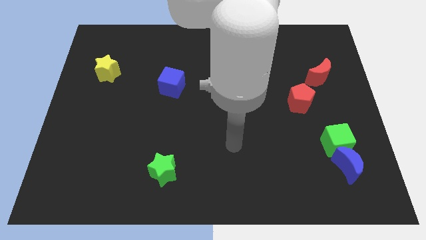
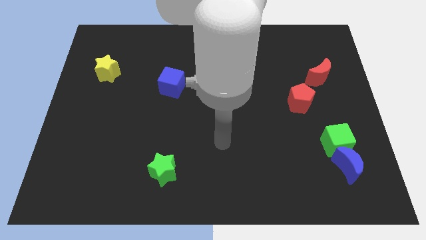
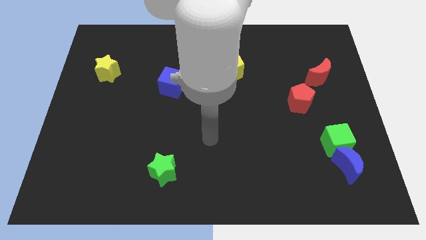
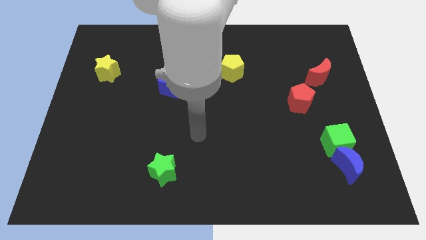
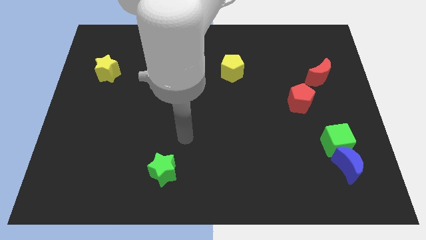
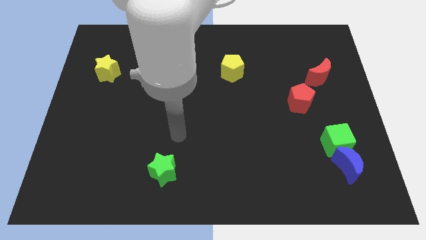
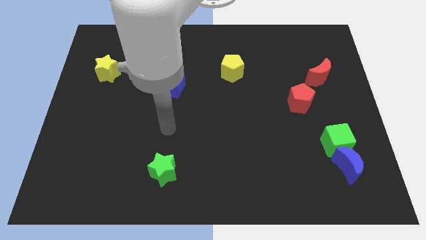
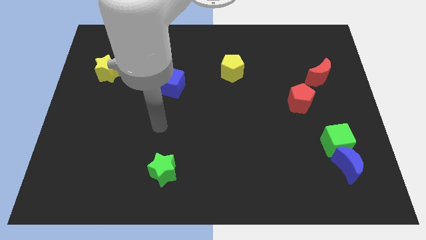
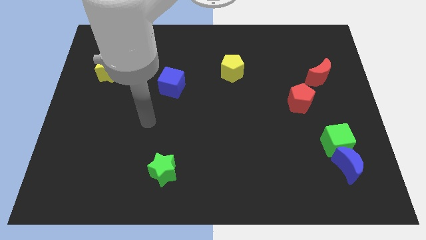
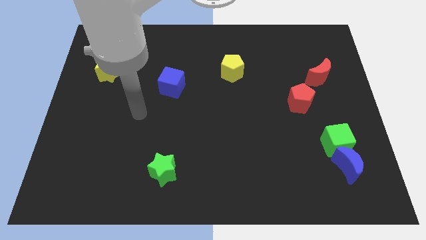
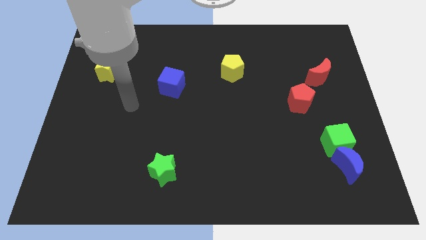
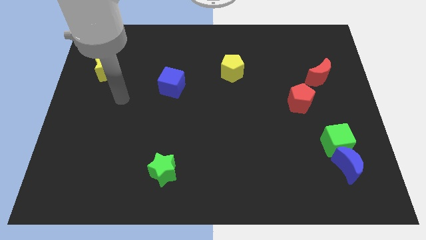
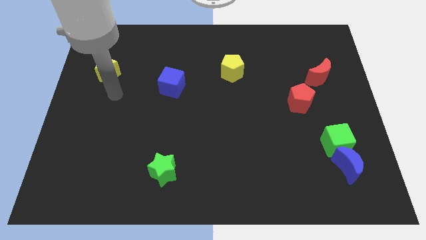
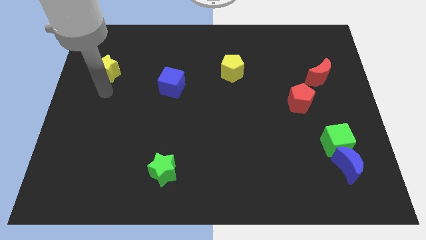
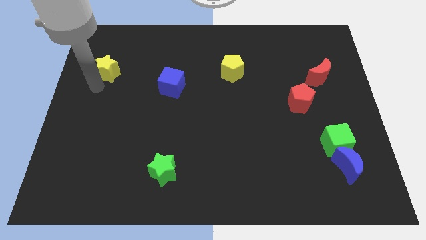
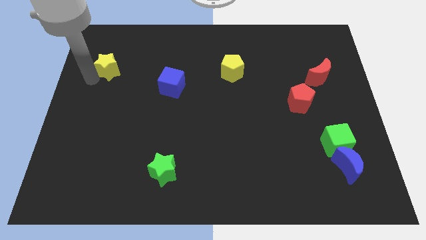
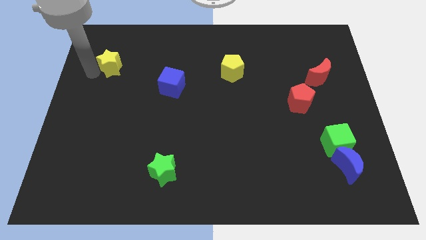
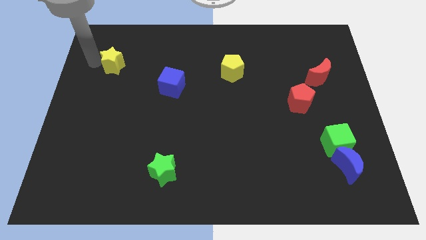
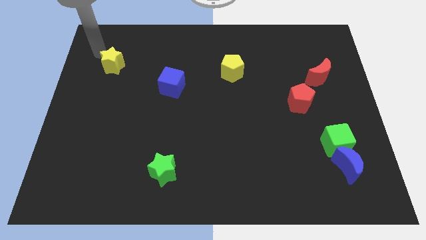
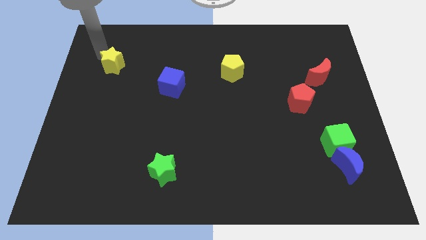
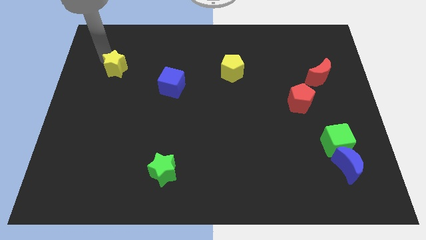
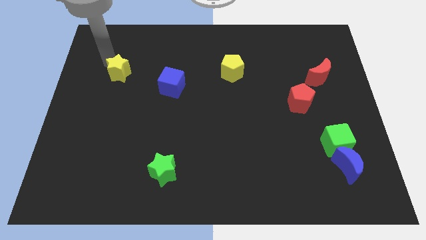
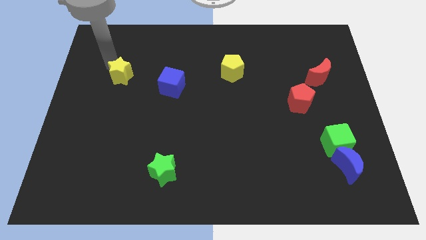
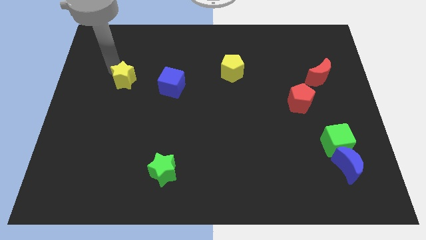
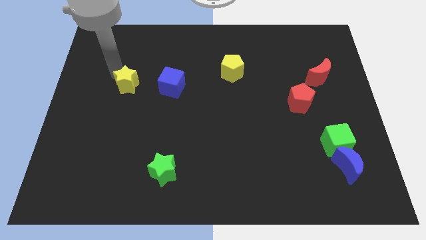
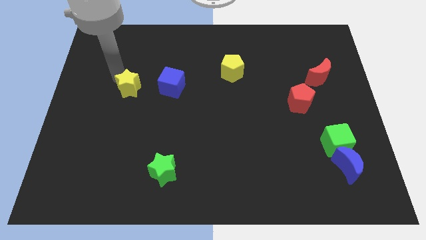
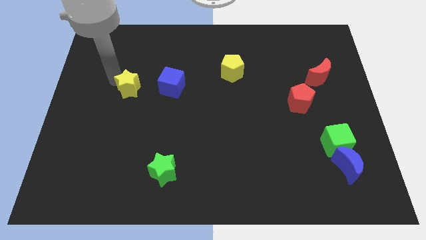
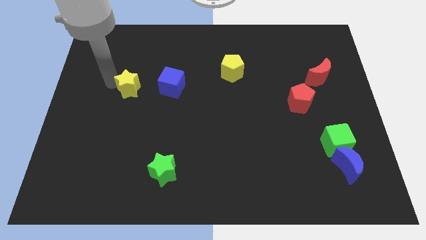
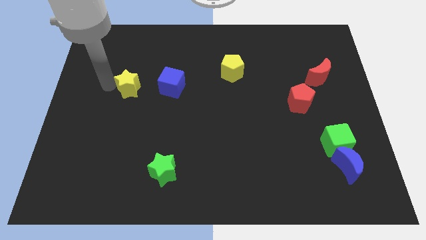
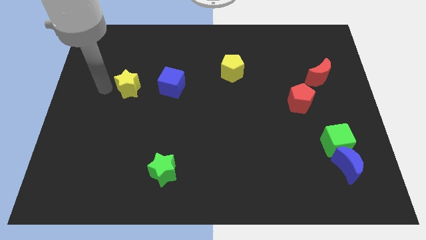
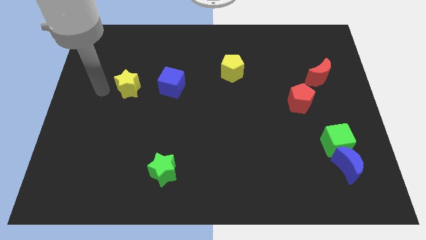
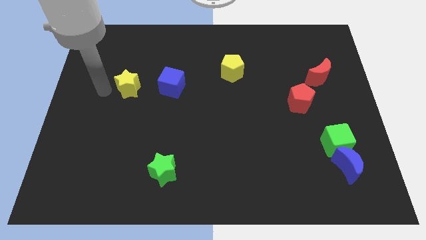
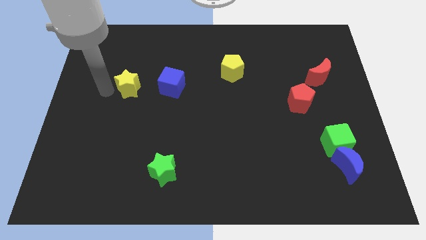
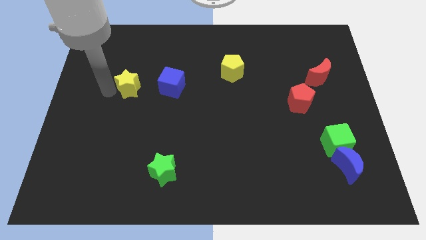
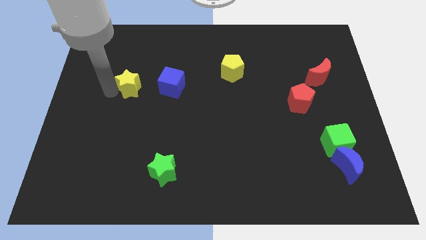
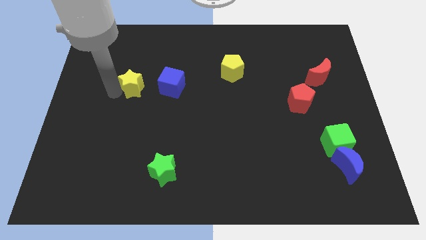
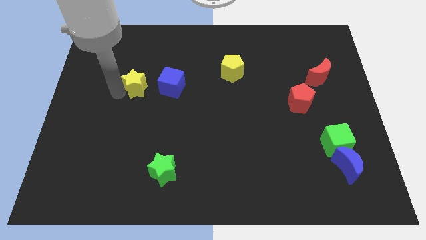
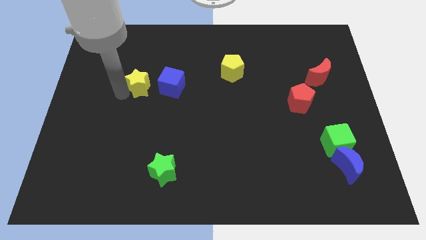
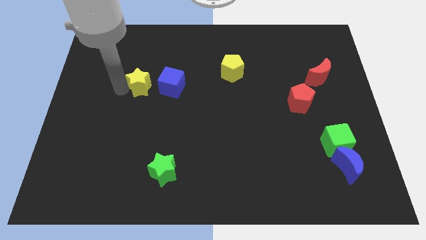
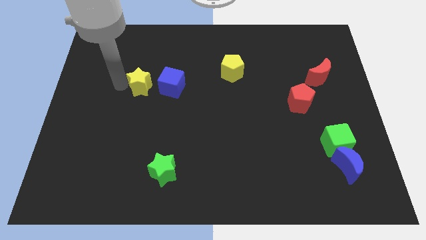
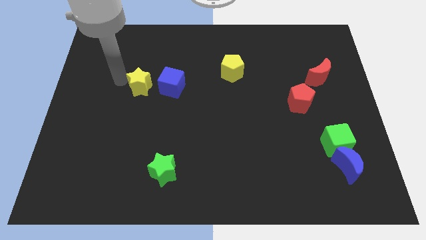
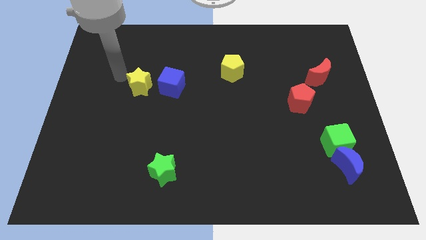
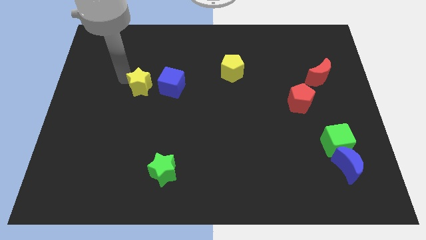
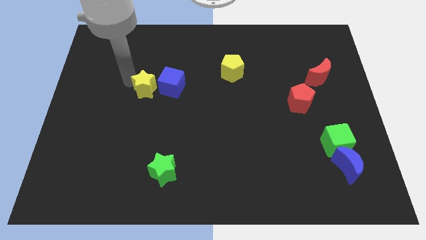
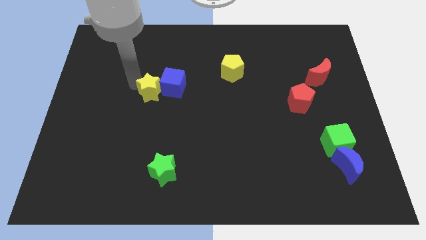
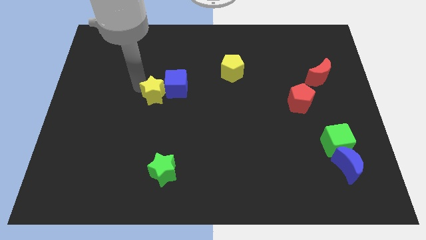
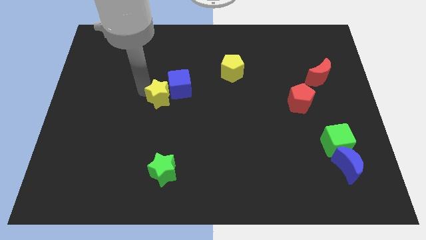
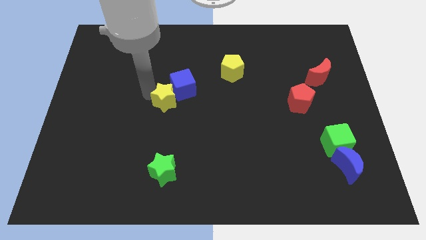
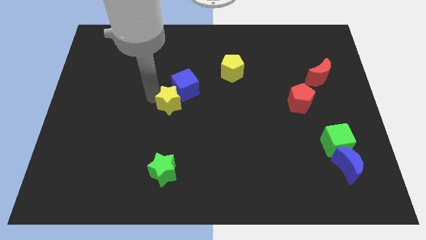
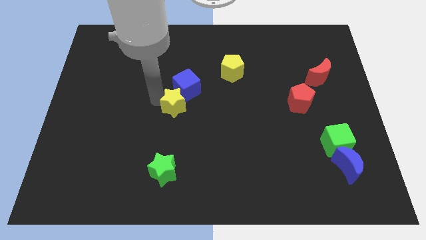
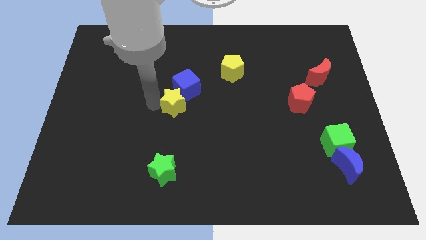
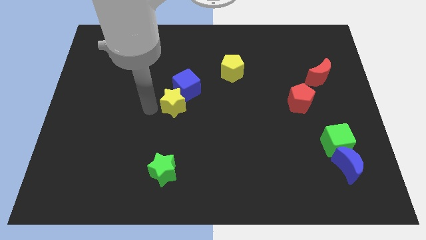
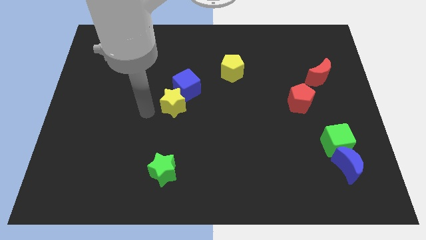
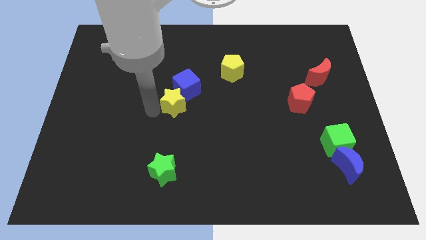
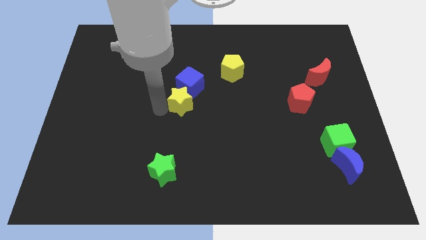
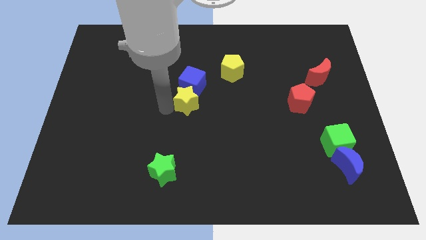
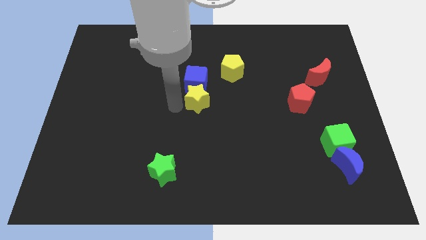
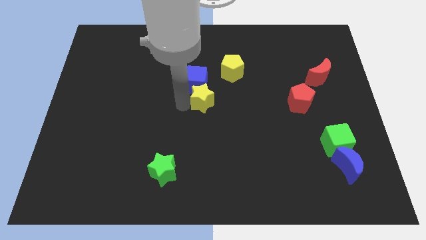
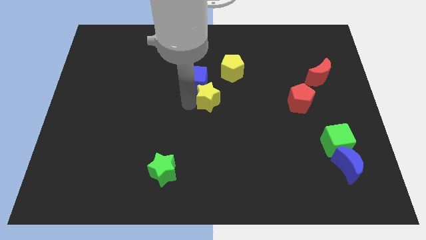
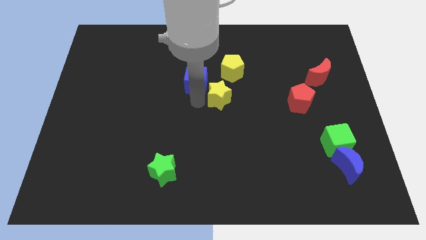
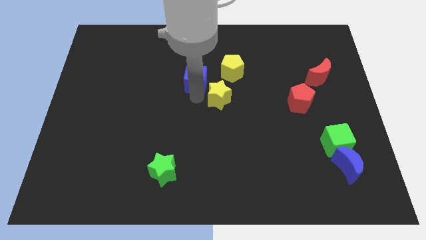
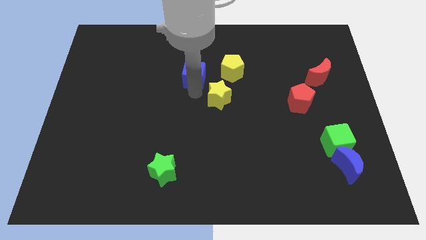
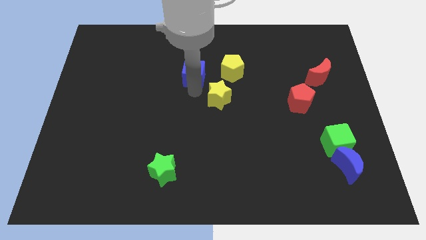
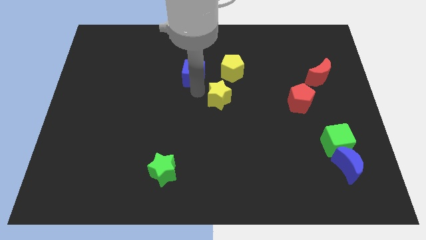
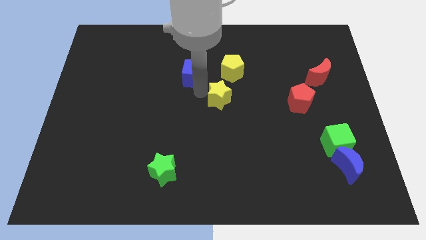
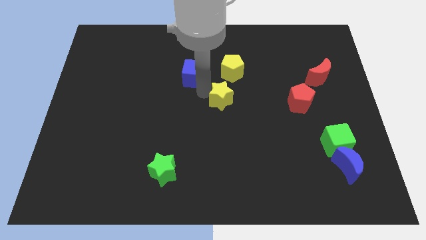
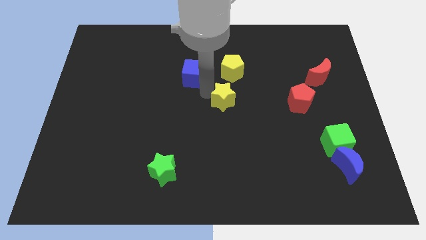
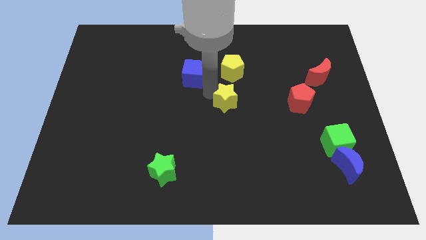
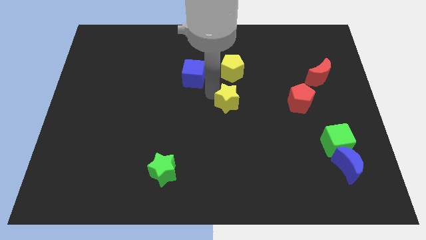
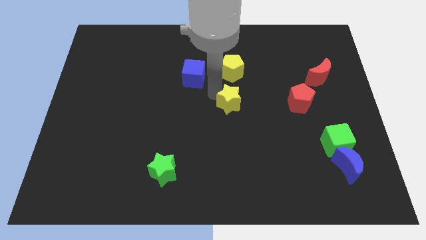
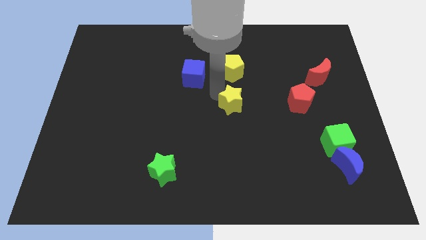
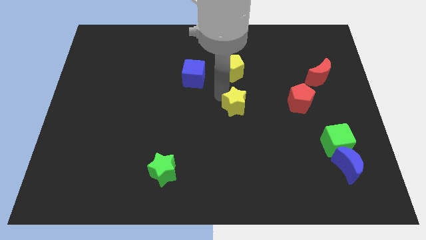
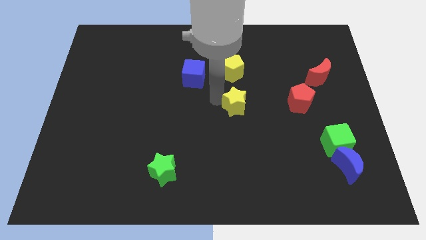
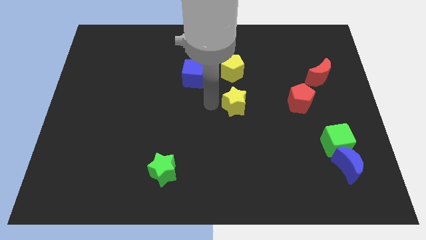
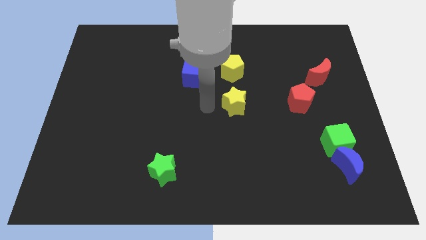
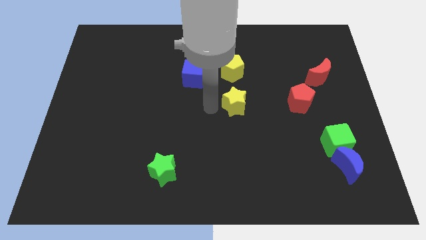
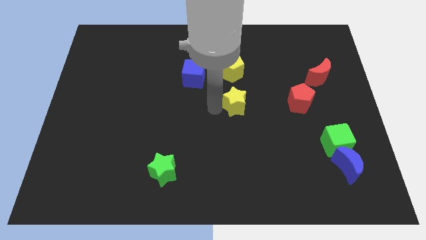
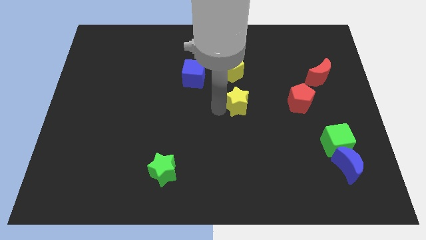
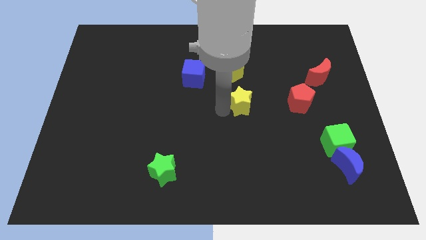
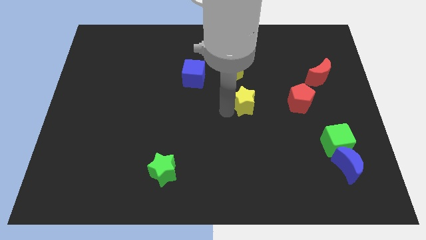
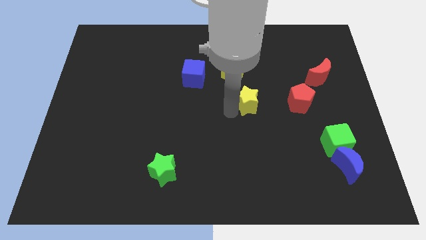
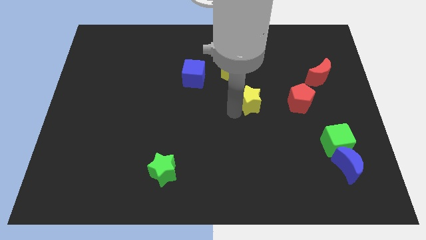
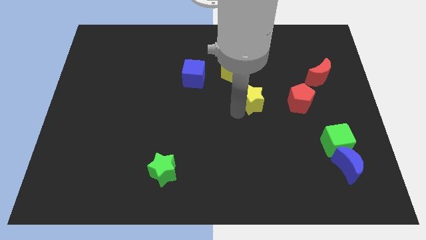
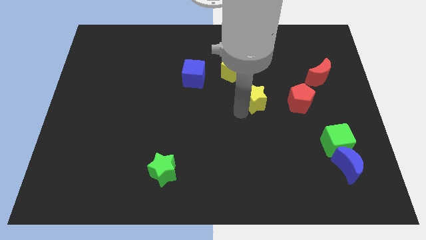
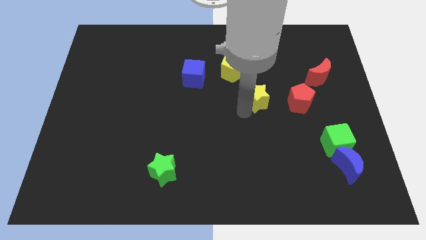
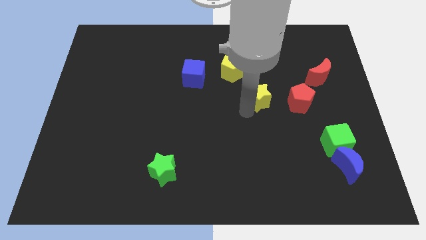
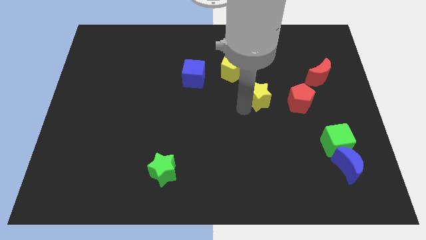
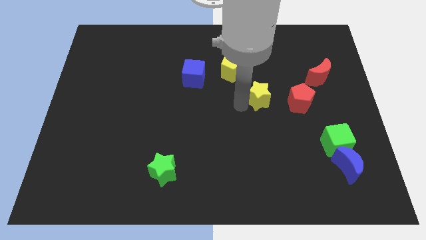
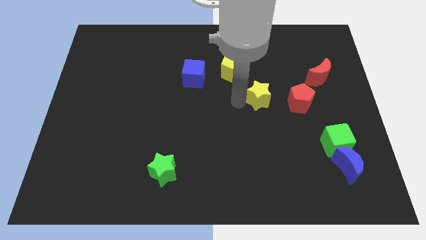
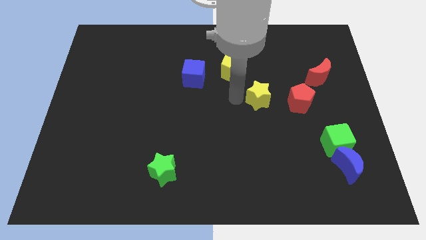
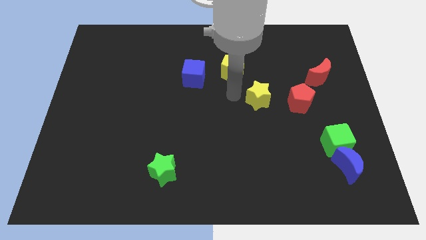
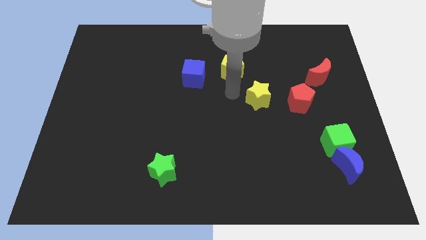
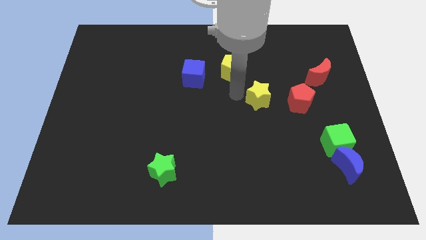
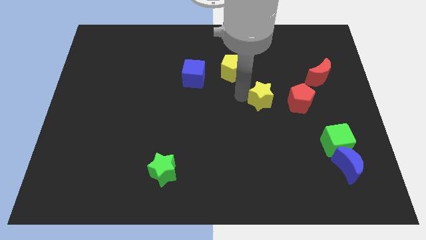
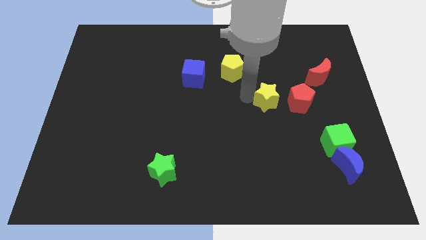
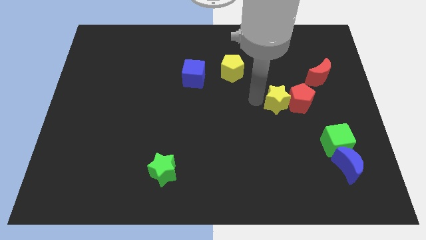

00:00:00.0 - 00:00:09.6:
move the yellow star to the red pentagon
